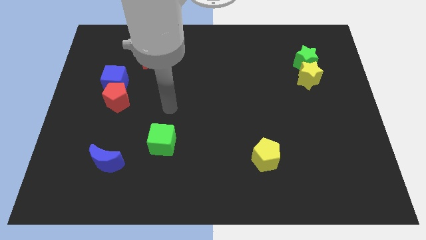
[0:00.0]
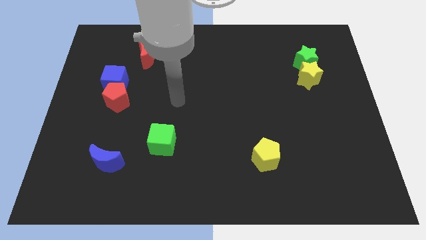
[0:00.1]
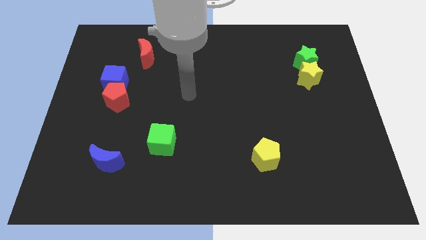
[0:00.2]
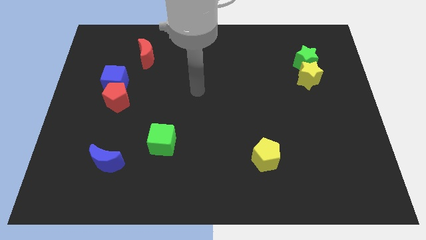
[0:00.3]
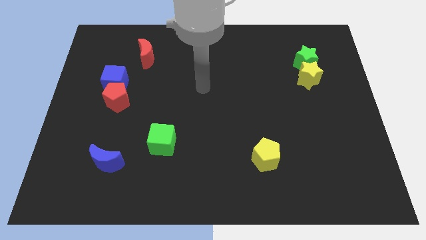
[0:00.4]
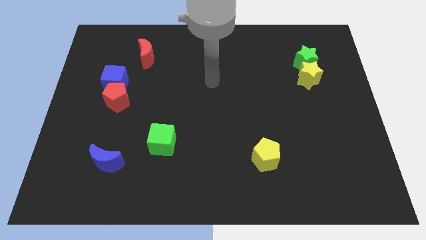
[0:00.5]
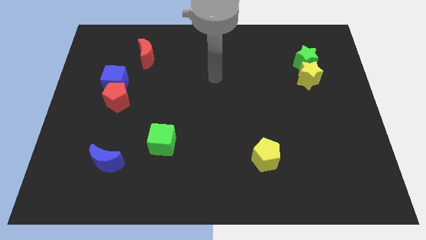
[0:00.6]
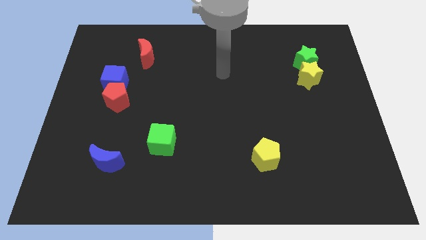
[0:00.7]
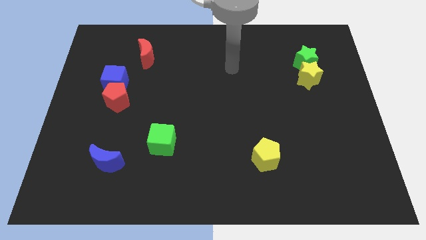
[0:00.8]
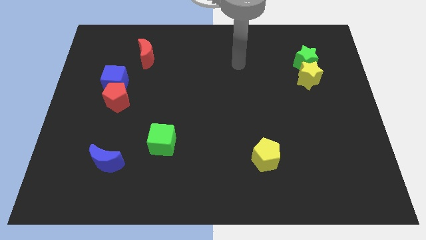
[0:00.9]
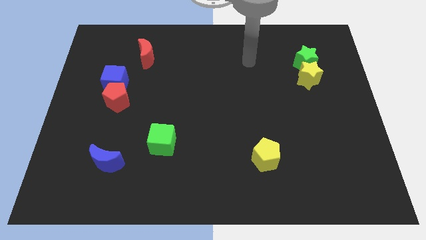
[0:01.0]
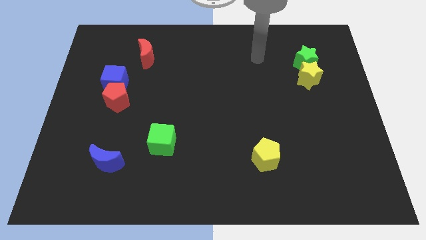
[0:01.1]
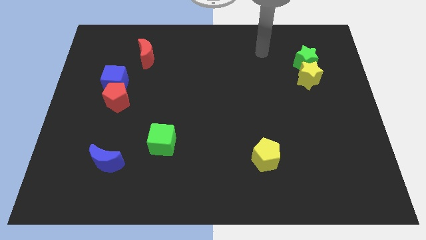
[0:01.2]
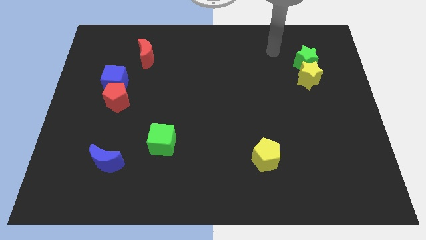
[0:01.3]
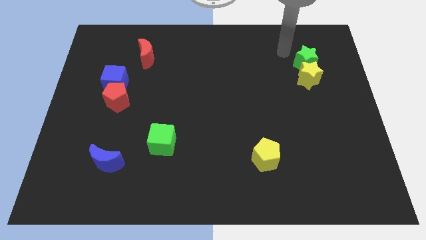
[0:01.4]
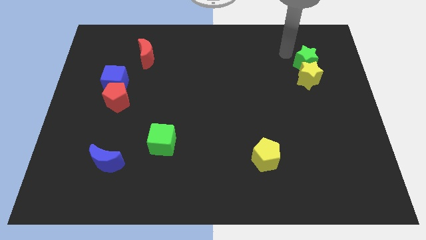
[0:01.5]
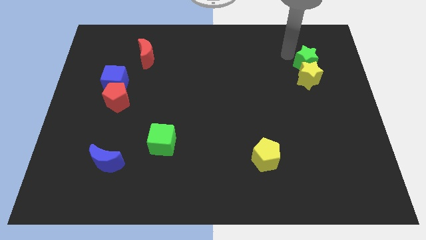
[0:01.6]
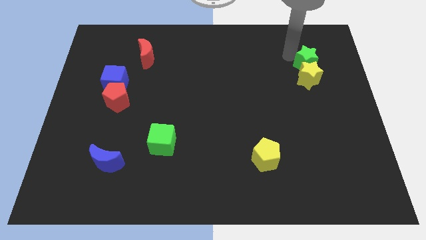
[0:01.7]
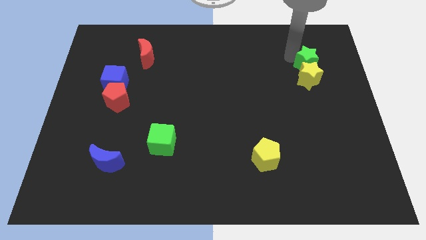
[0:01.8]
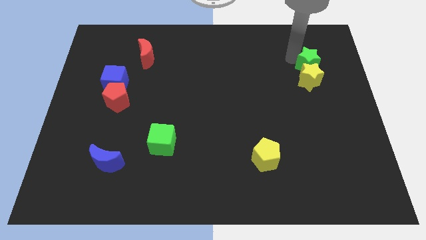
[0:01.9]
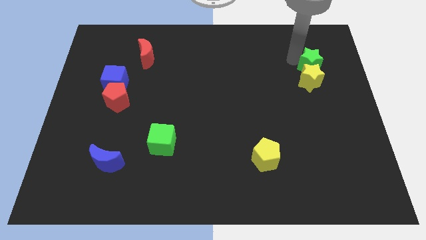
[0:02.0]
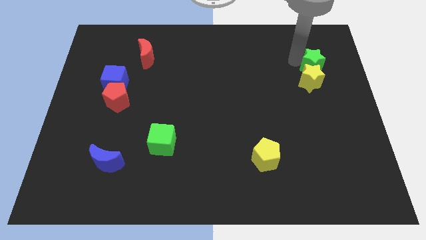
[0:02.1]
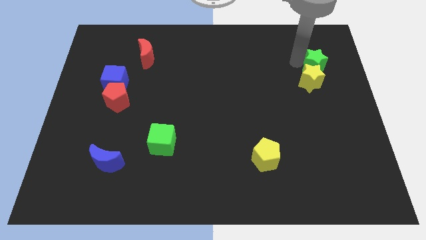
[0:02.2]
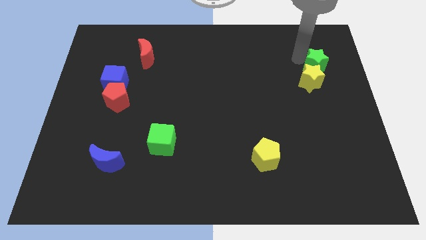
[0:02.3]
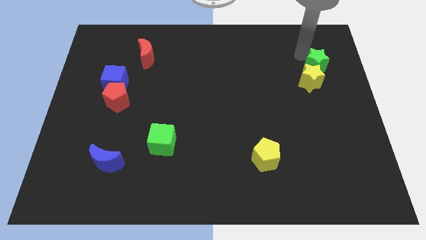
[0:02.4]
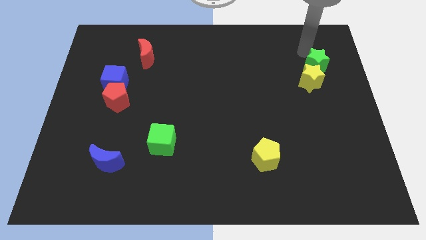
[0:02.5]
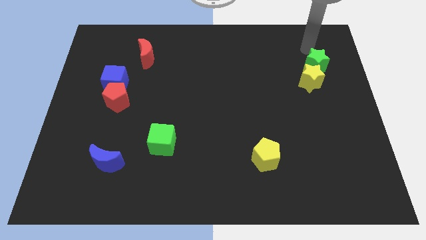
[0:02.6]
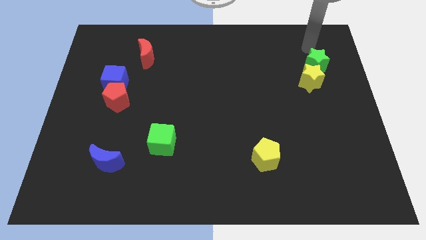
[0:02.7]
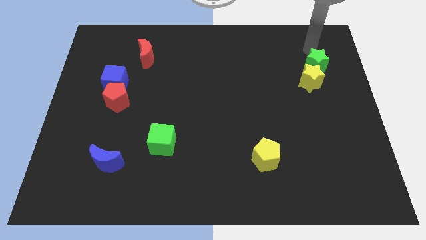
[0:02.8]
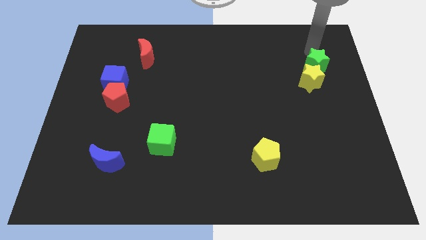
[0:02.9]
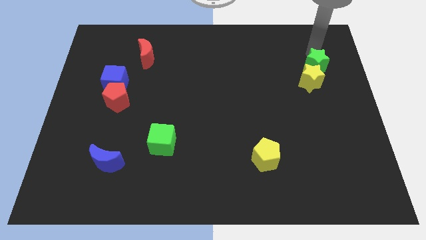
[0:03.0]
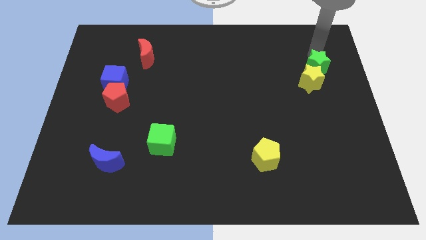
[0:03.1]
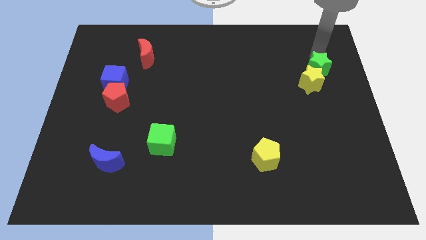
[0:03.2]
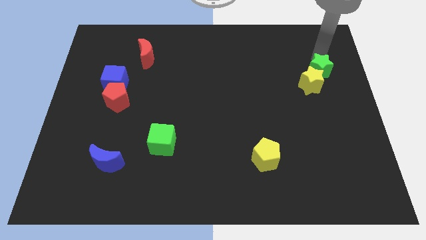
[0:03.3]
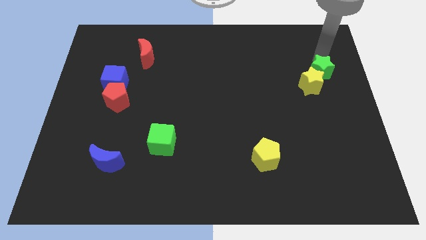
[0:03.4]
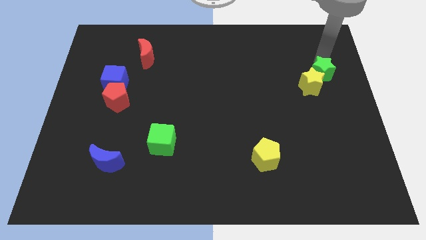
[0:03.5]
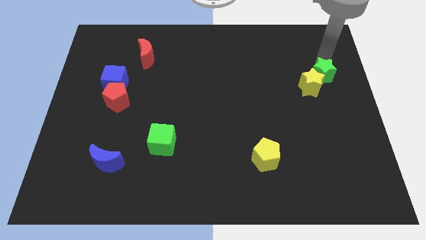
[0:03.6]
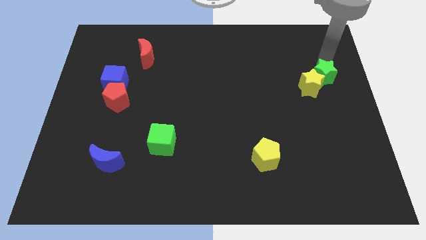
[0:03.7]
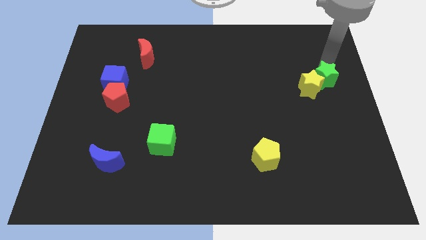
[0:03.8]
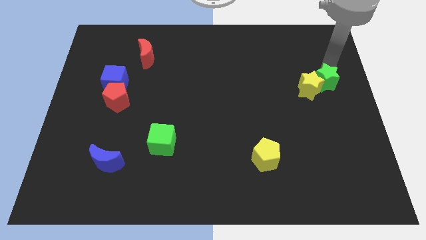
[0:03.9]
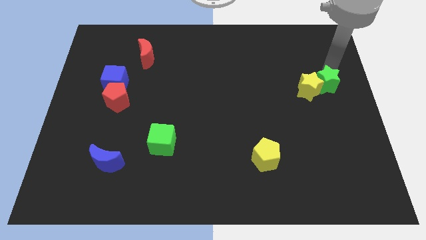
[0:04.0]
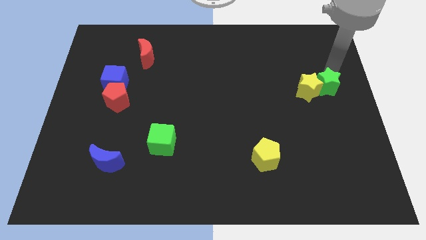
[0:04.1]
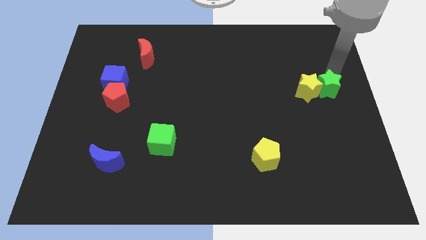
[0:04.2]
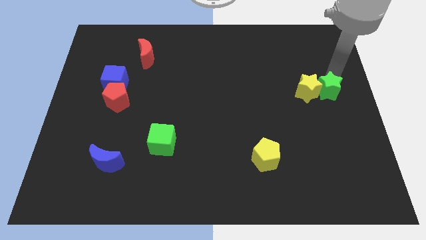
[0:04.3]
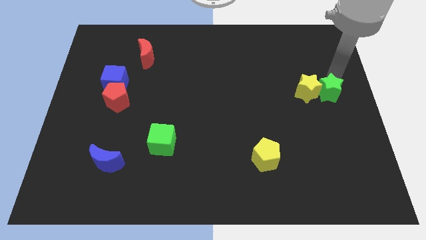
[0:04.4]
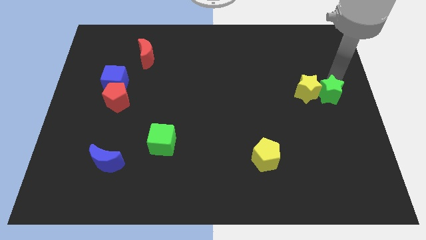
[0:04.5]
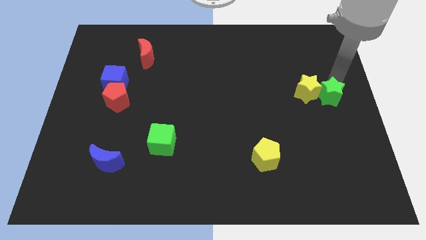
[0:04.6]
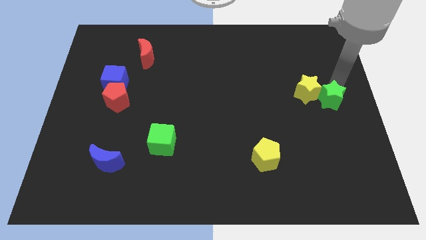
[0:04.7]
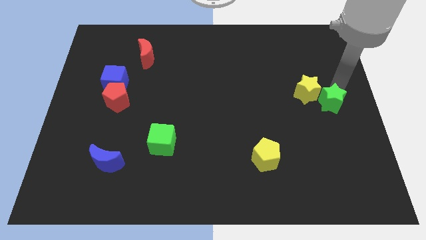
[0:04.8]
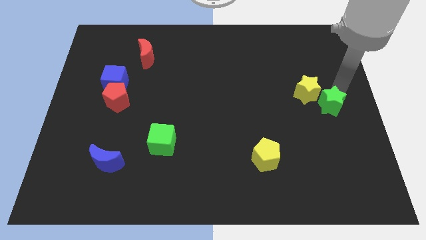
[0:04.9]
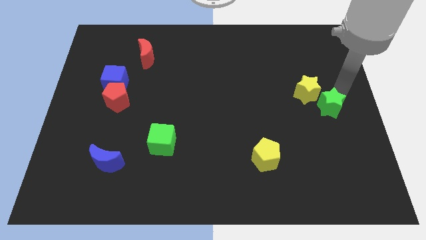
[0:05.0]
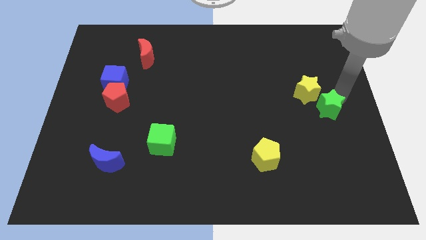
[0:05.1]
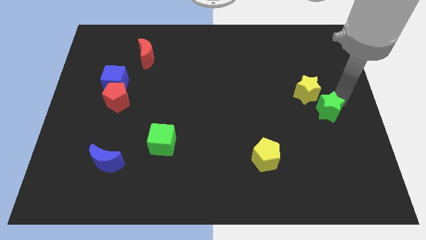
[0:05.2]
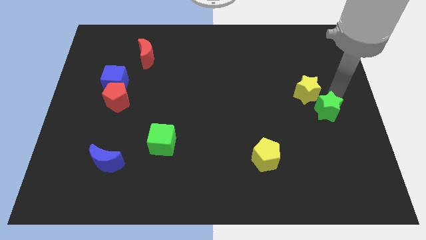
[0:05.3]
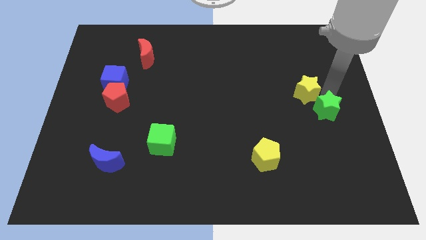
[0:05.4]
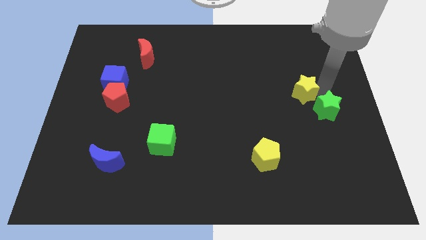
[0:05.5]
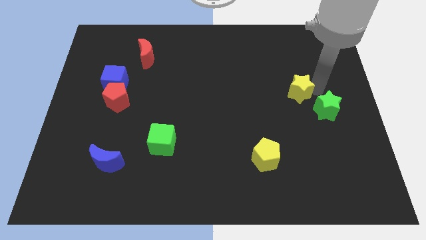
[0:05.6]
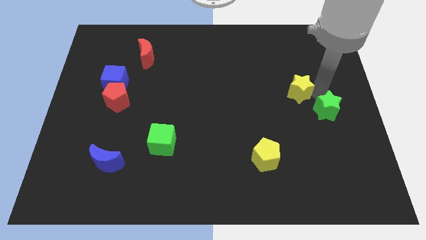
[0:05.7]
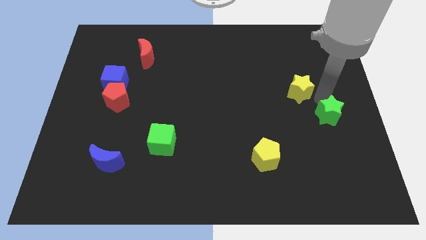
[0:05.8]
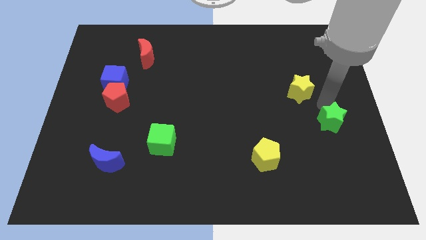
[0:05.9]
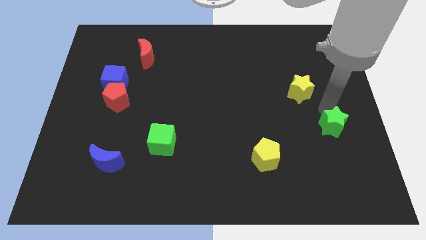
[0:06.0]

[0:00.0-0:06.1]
push the green star downwards

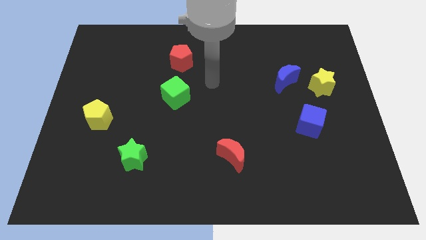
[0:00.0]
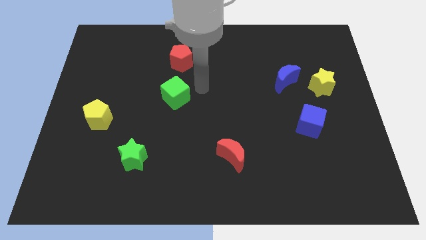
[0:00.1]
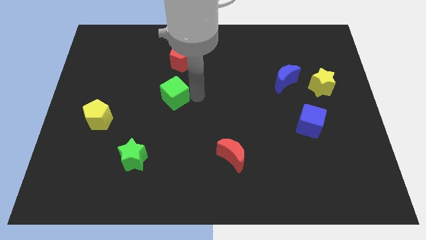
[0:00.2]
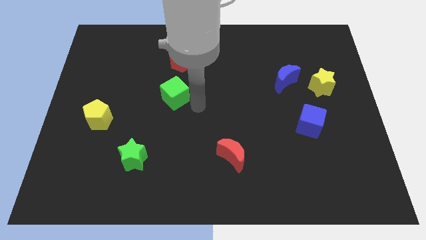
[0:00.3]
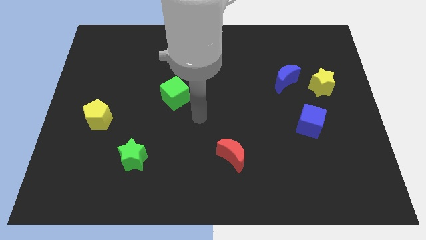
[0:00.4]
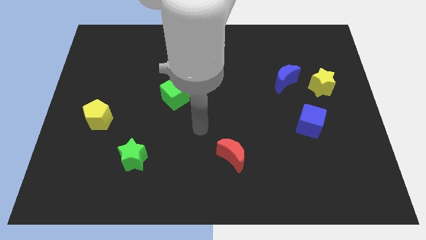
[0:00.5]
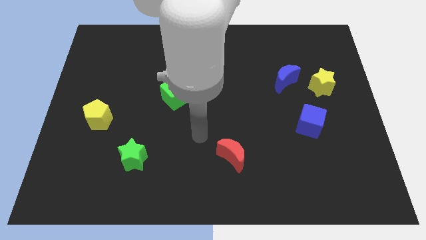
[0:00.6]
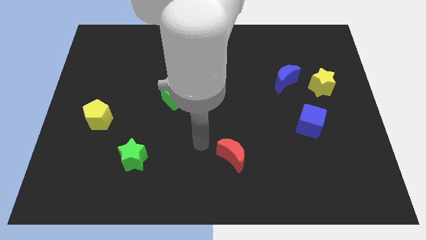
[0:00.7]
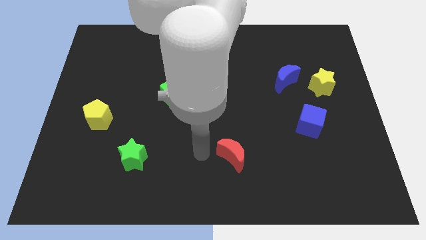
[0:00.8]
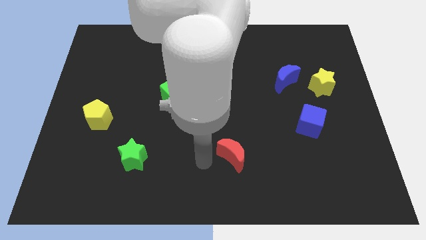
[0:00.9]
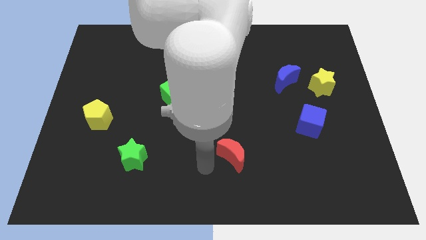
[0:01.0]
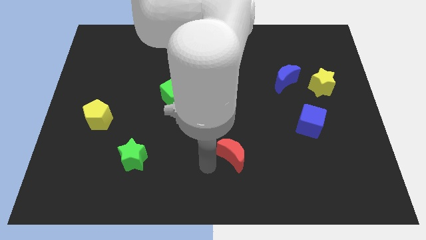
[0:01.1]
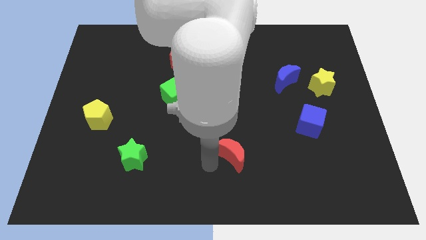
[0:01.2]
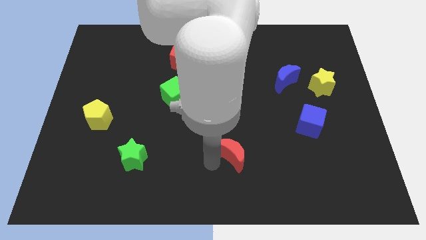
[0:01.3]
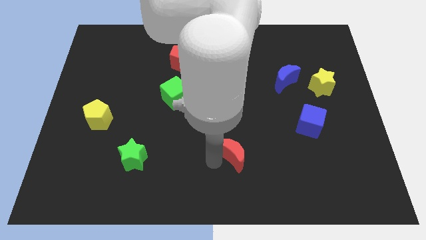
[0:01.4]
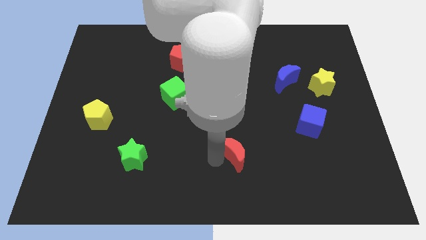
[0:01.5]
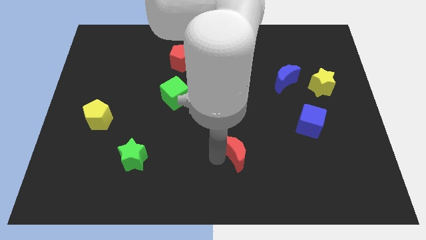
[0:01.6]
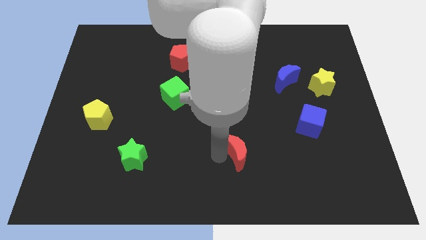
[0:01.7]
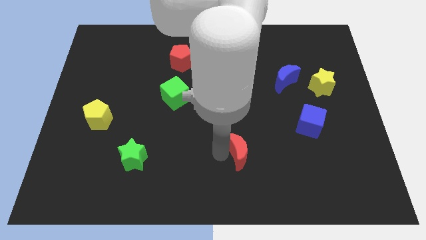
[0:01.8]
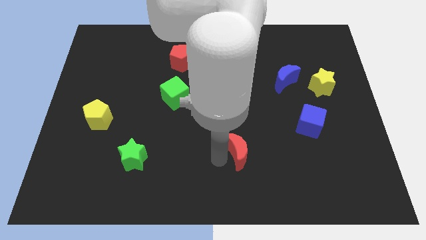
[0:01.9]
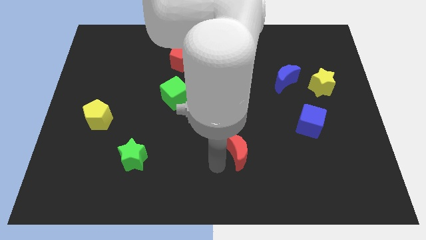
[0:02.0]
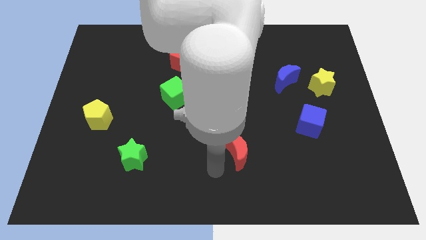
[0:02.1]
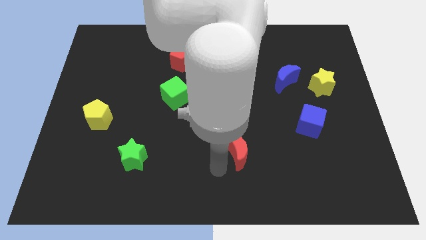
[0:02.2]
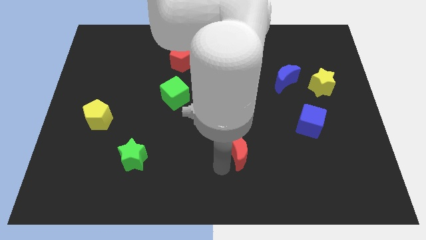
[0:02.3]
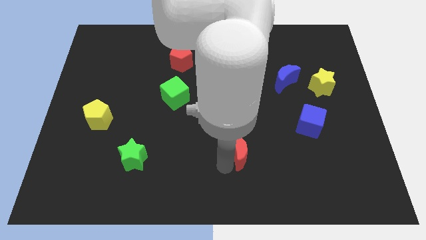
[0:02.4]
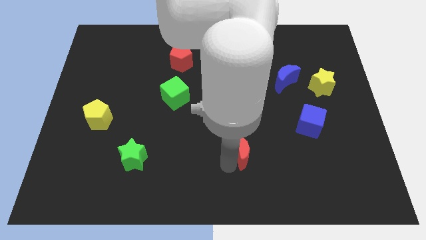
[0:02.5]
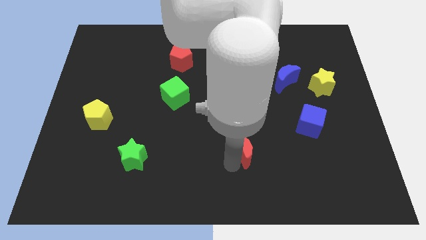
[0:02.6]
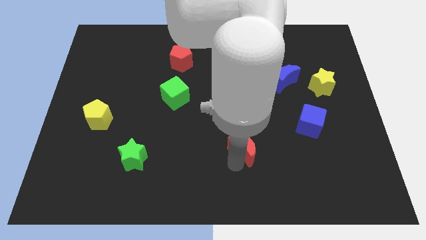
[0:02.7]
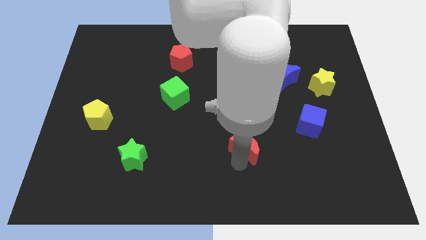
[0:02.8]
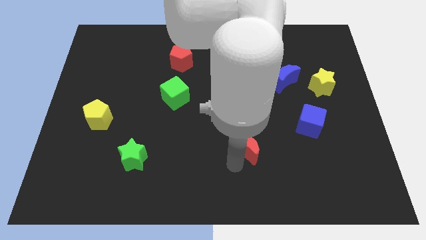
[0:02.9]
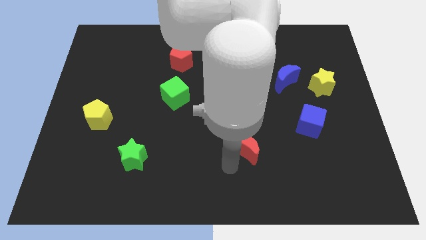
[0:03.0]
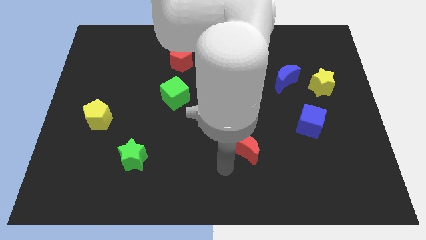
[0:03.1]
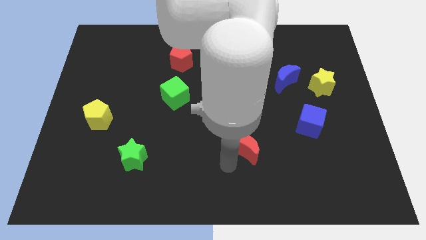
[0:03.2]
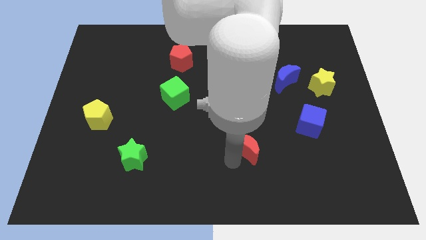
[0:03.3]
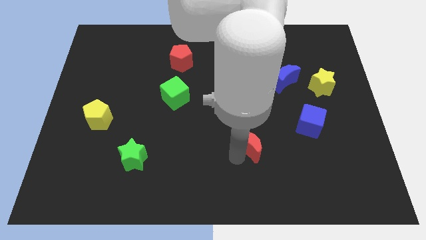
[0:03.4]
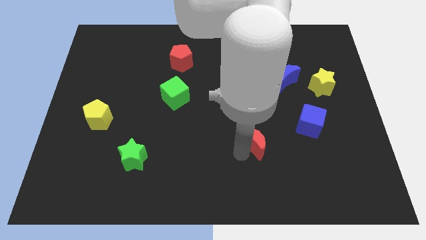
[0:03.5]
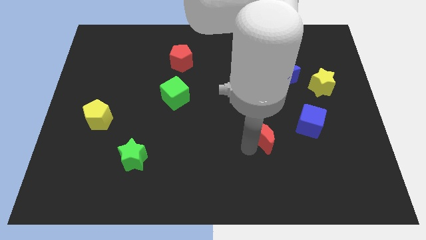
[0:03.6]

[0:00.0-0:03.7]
push the red moon upwards and then to the right a little bit
